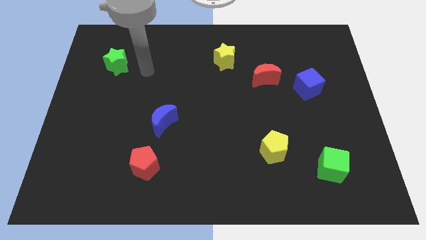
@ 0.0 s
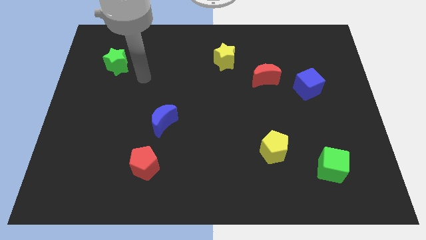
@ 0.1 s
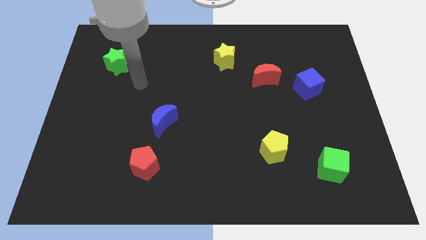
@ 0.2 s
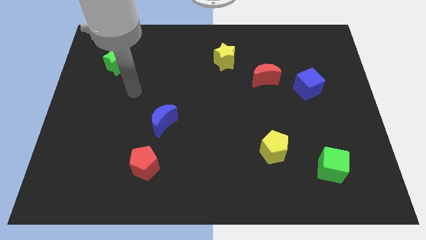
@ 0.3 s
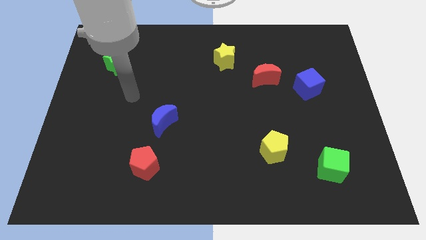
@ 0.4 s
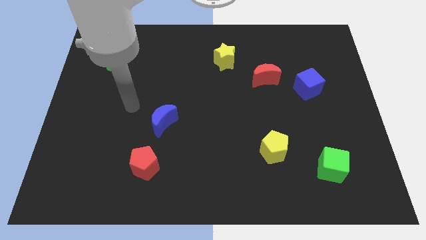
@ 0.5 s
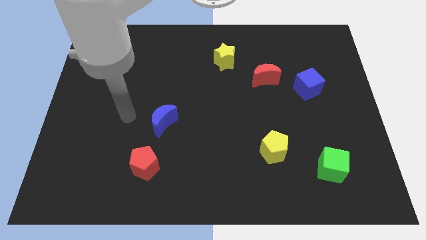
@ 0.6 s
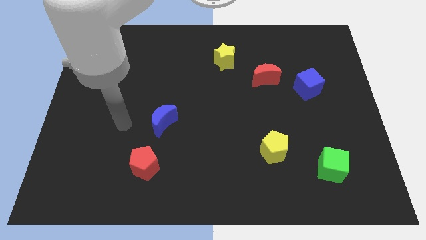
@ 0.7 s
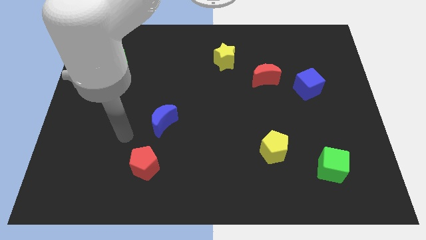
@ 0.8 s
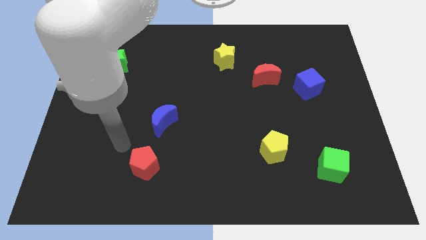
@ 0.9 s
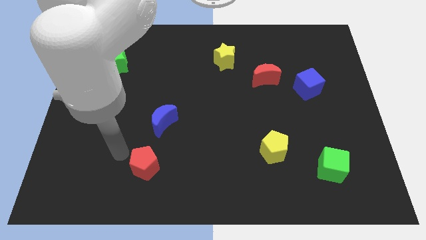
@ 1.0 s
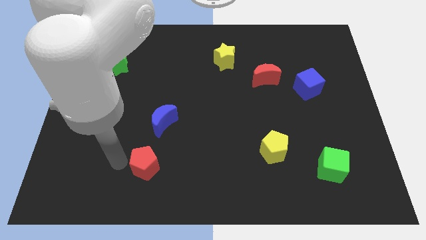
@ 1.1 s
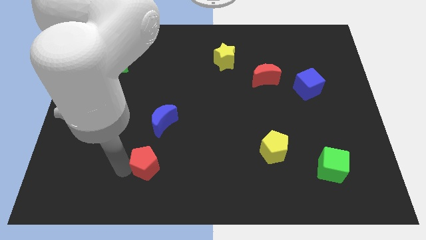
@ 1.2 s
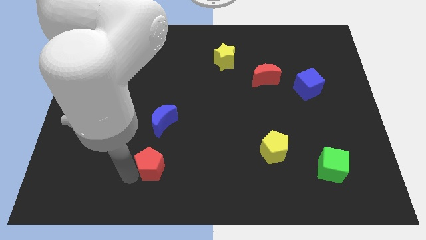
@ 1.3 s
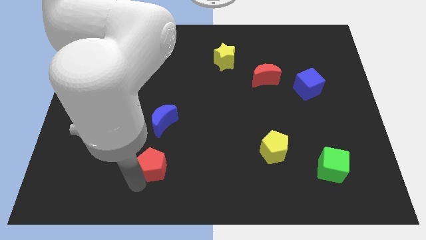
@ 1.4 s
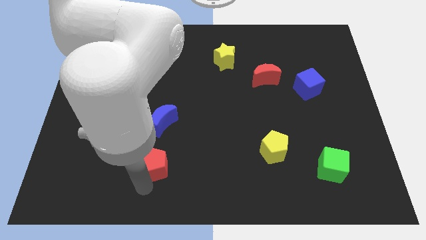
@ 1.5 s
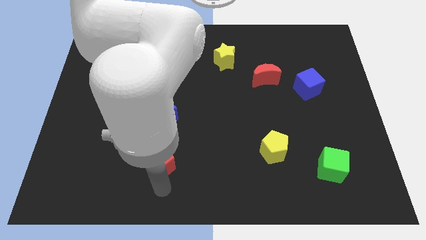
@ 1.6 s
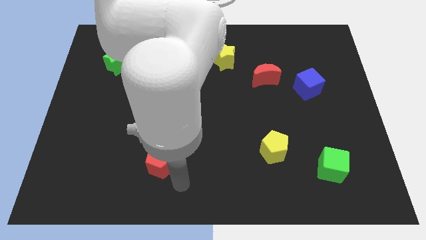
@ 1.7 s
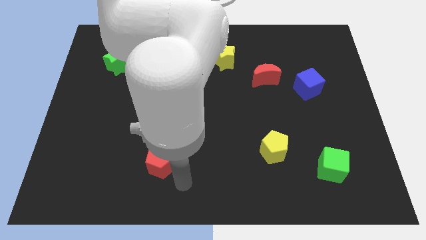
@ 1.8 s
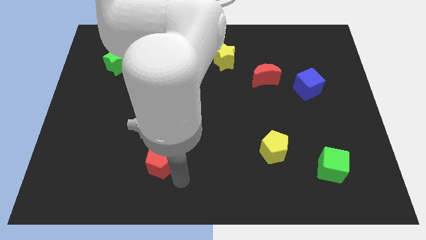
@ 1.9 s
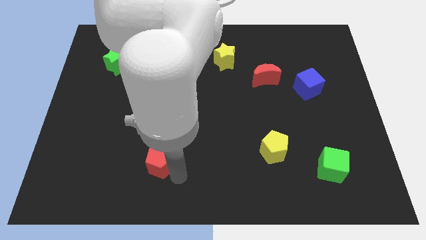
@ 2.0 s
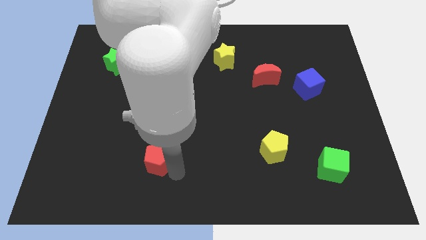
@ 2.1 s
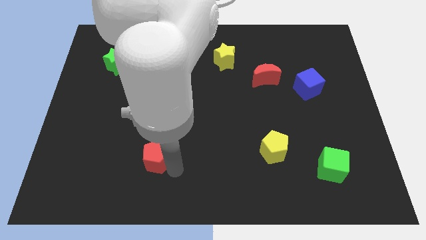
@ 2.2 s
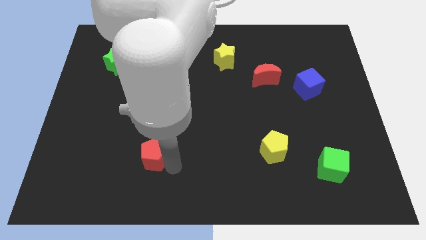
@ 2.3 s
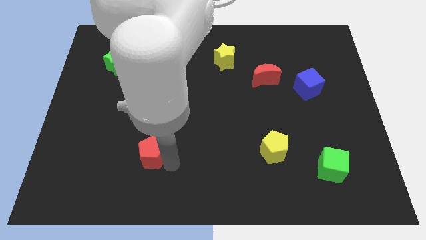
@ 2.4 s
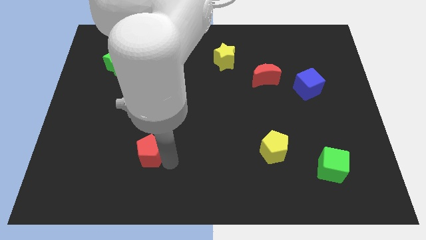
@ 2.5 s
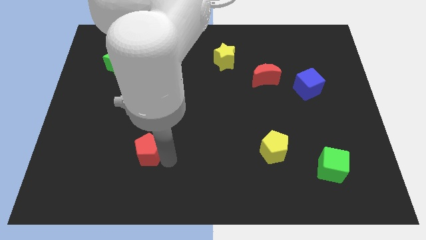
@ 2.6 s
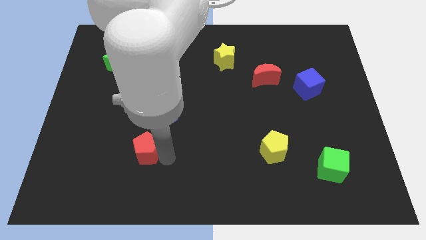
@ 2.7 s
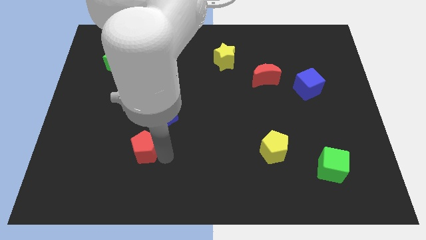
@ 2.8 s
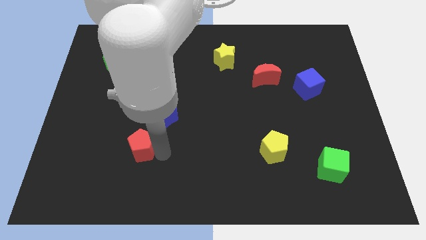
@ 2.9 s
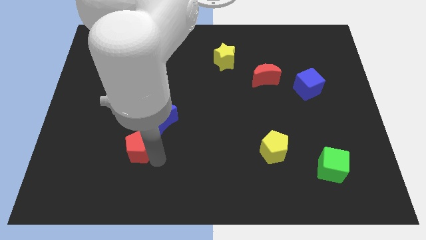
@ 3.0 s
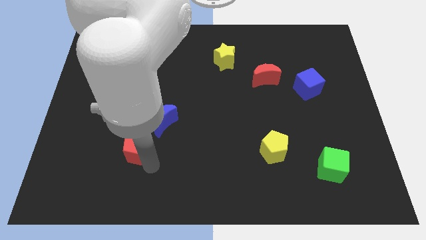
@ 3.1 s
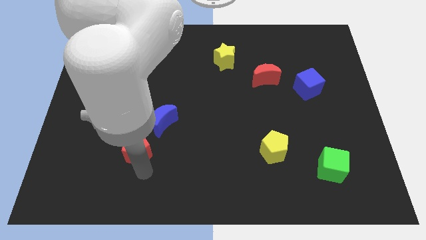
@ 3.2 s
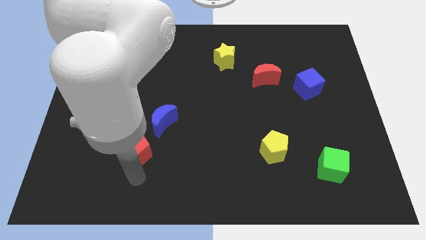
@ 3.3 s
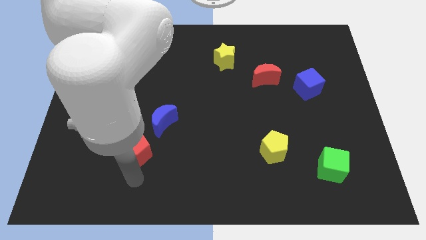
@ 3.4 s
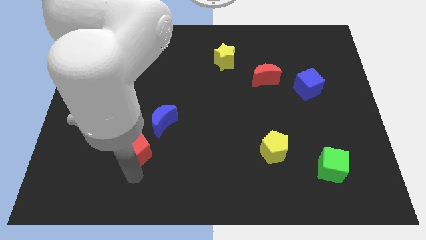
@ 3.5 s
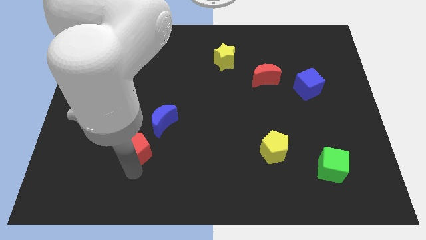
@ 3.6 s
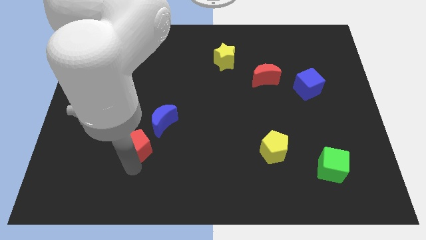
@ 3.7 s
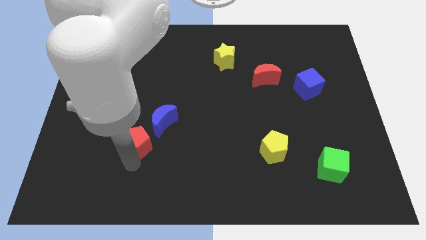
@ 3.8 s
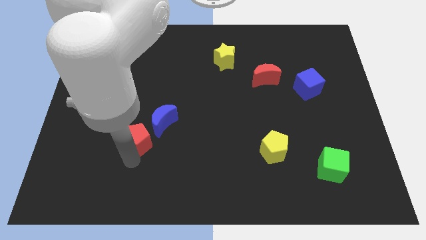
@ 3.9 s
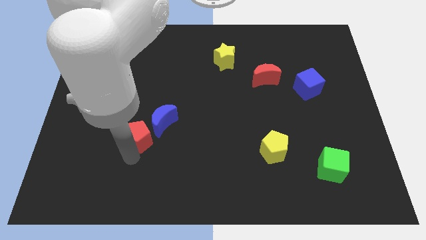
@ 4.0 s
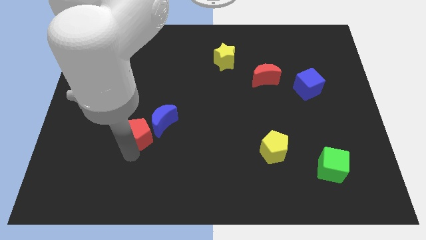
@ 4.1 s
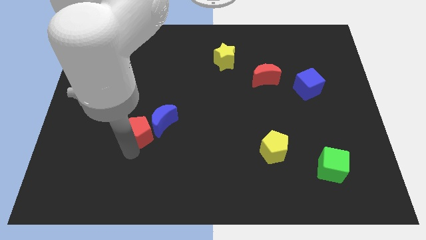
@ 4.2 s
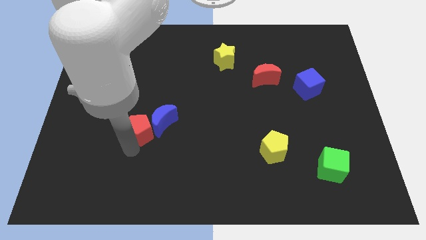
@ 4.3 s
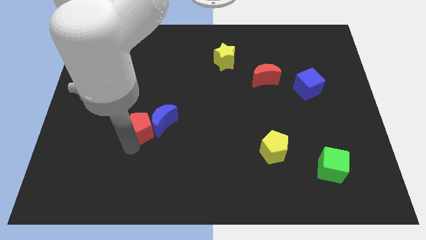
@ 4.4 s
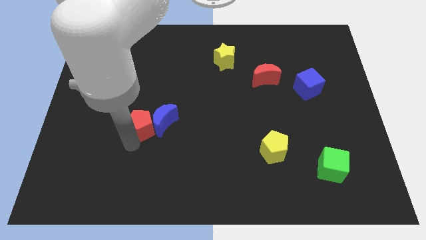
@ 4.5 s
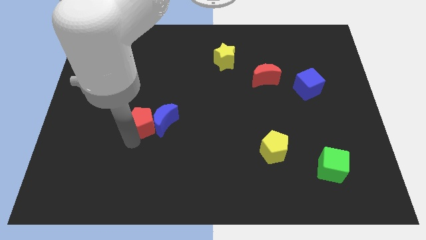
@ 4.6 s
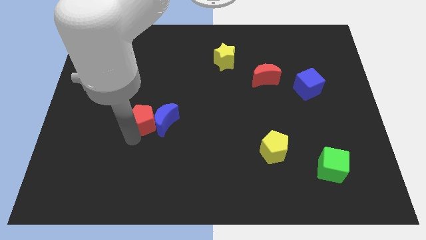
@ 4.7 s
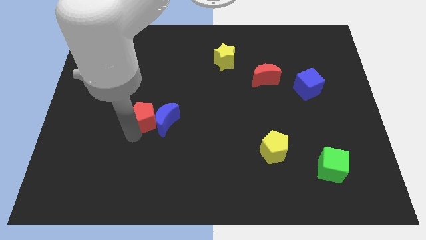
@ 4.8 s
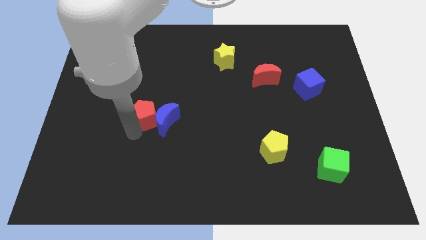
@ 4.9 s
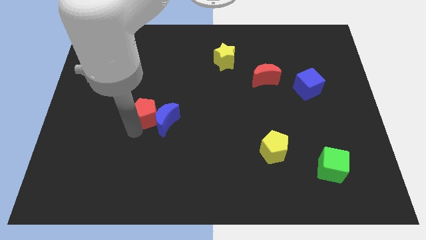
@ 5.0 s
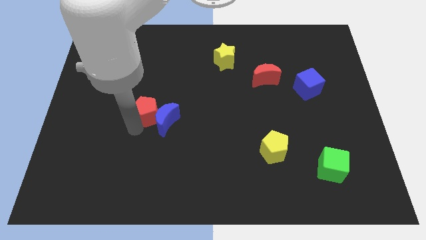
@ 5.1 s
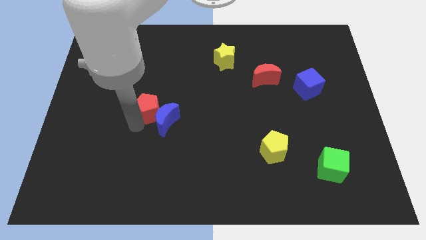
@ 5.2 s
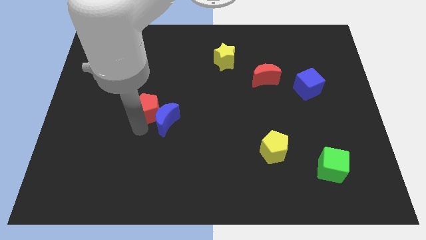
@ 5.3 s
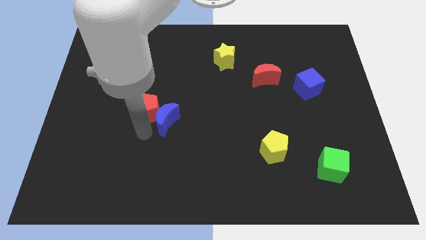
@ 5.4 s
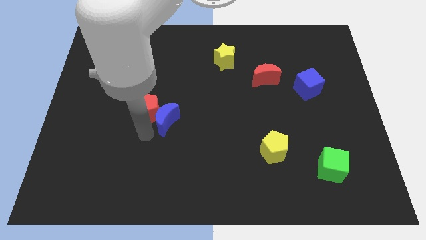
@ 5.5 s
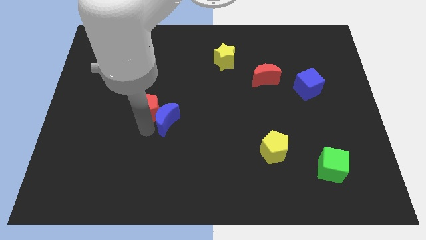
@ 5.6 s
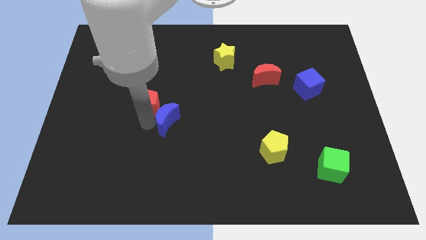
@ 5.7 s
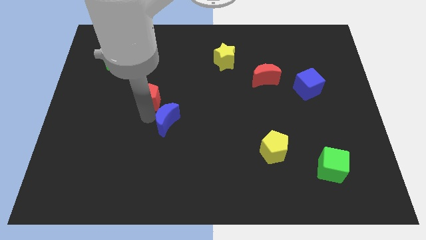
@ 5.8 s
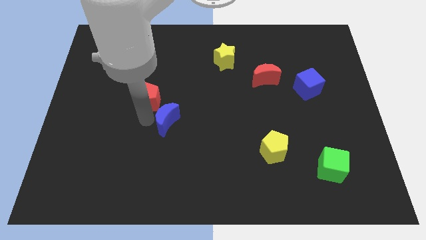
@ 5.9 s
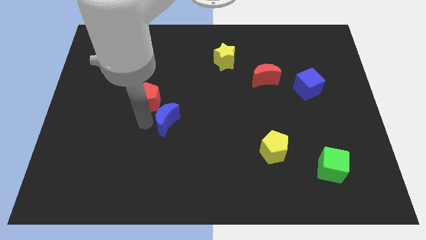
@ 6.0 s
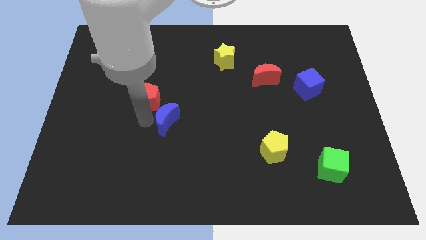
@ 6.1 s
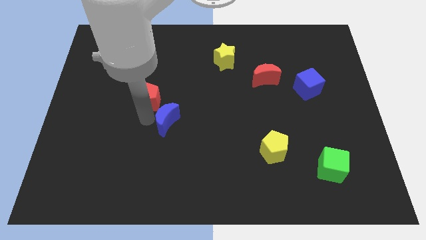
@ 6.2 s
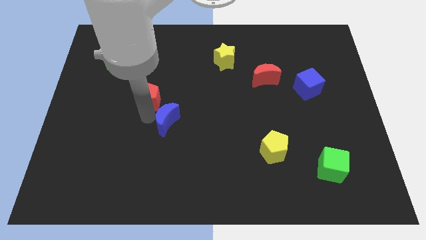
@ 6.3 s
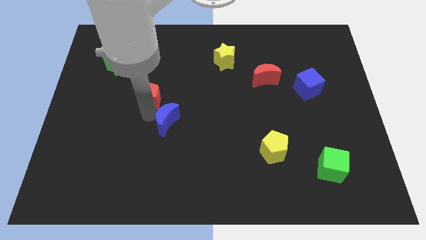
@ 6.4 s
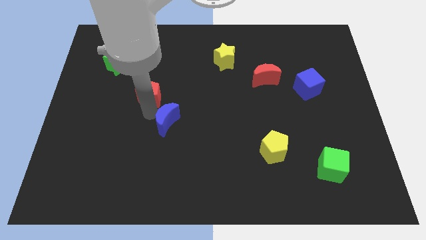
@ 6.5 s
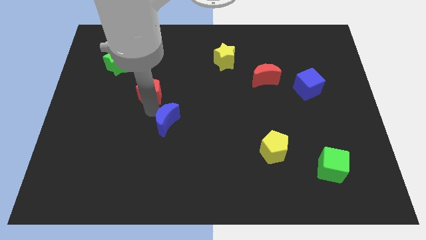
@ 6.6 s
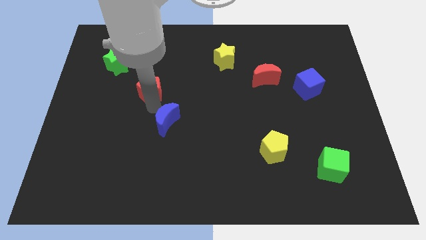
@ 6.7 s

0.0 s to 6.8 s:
slide the red pentagon upwards

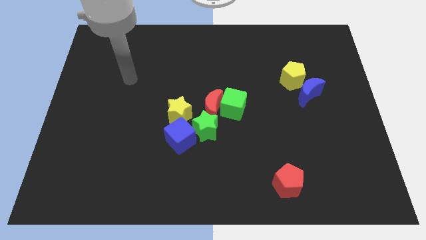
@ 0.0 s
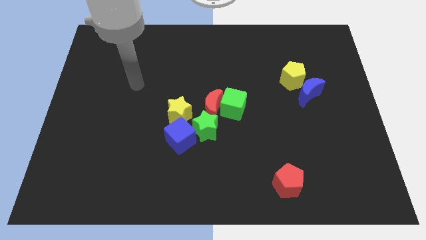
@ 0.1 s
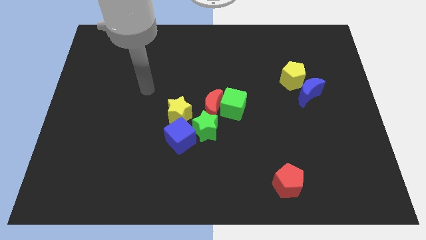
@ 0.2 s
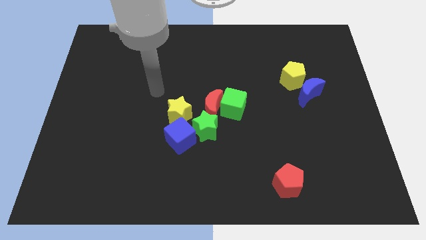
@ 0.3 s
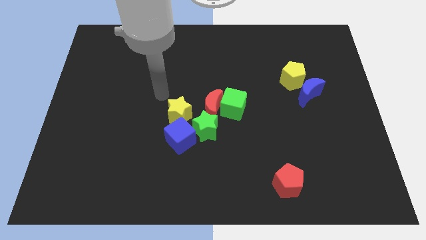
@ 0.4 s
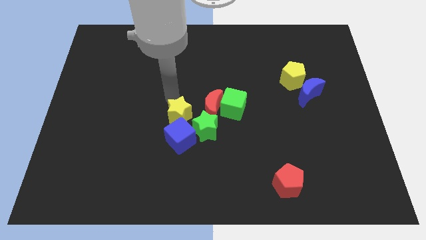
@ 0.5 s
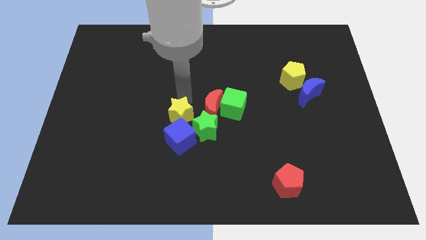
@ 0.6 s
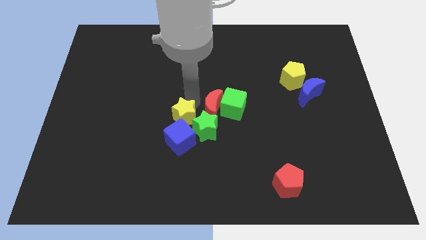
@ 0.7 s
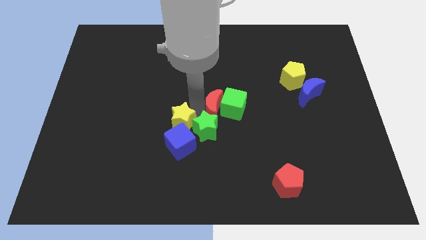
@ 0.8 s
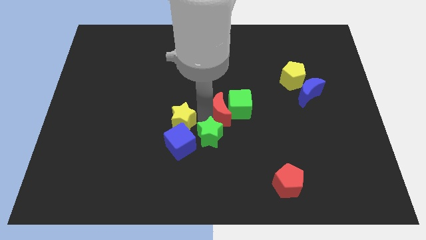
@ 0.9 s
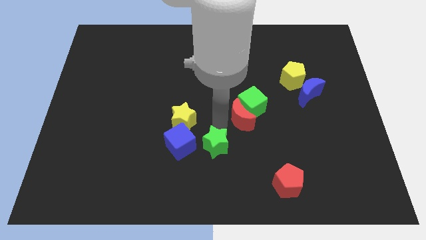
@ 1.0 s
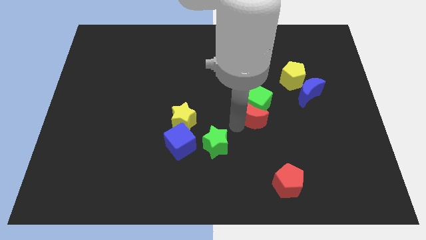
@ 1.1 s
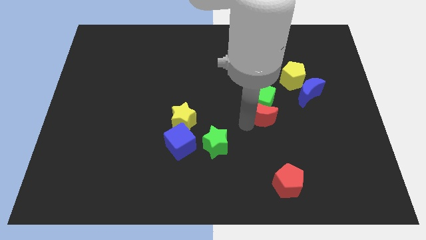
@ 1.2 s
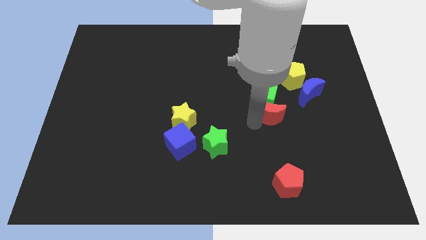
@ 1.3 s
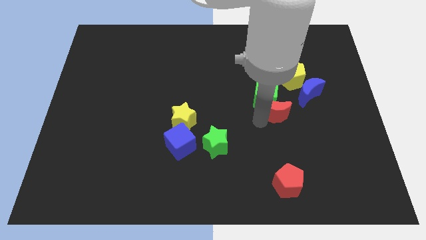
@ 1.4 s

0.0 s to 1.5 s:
move the green cube slightly up and then to the right
